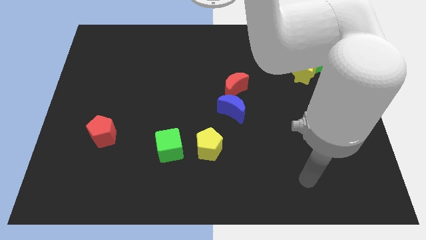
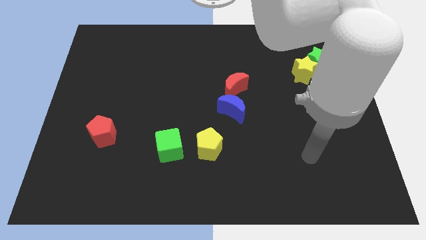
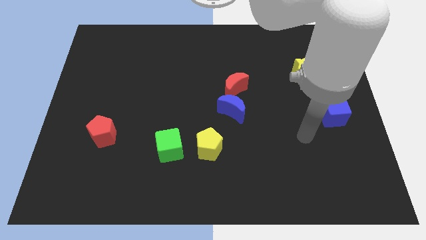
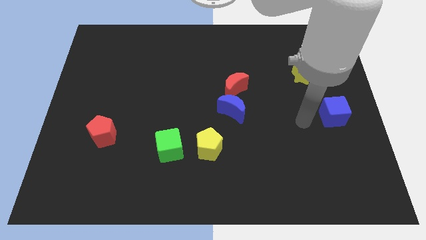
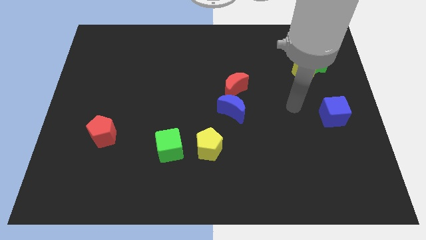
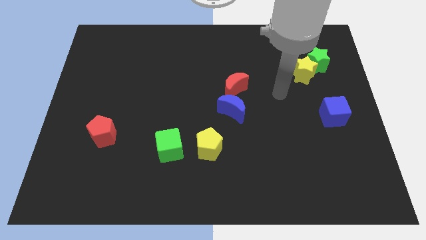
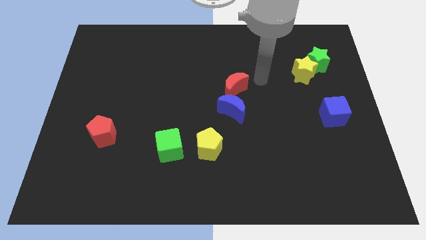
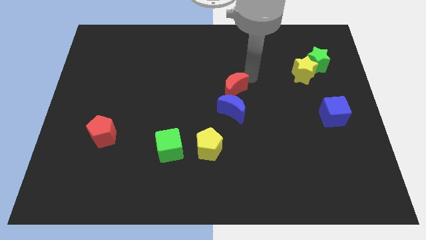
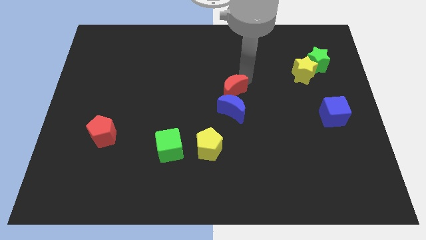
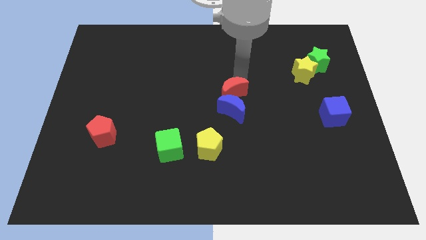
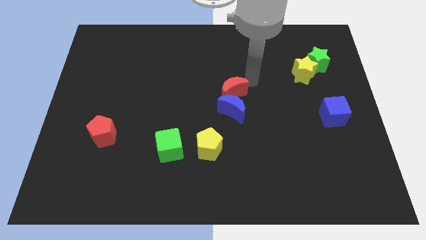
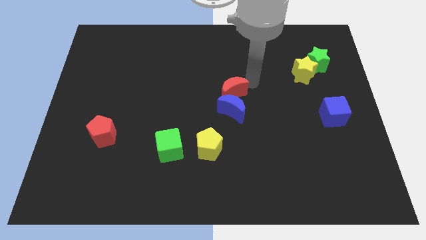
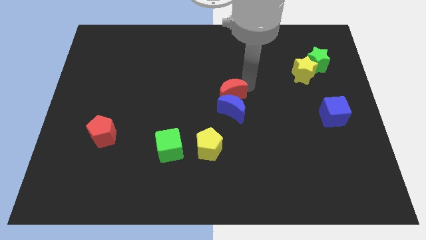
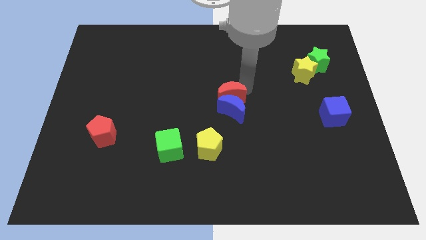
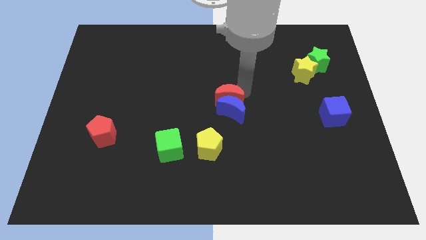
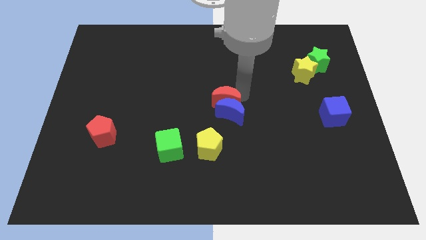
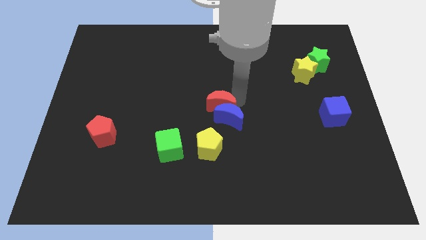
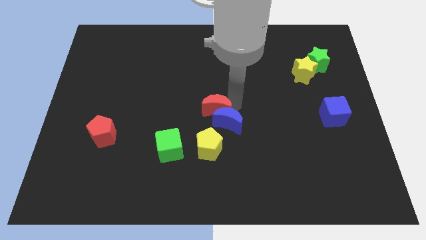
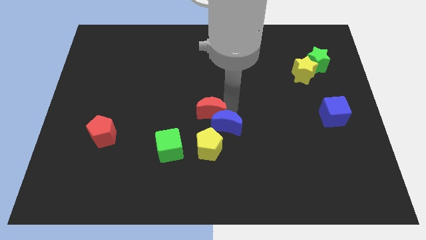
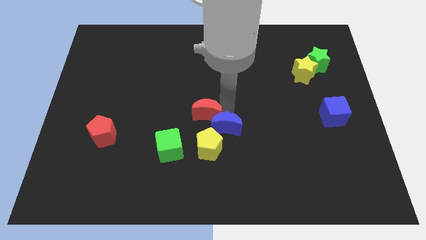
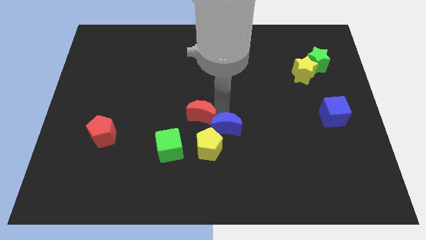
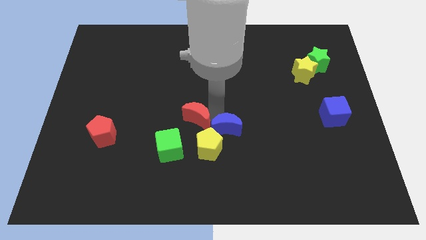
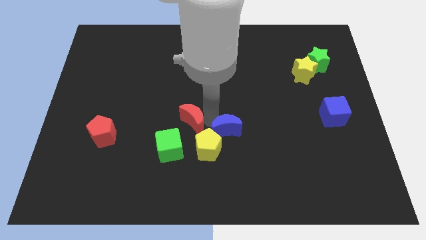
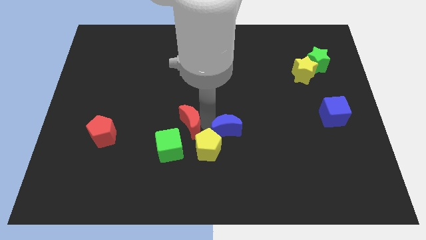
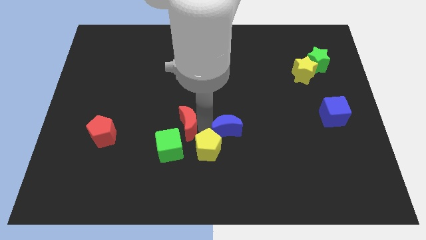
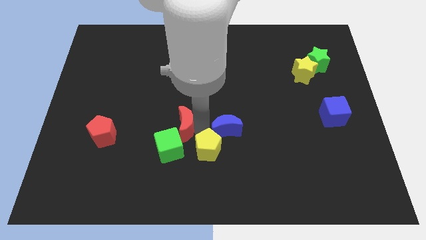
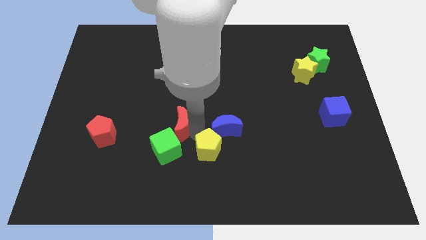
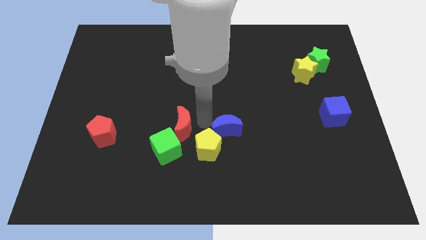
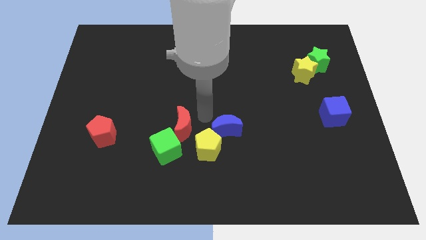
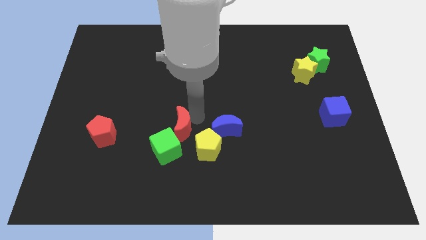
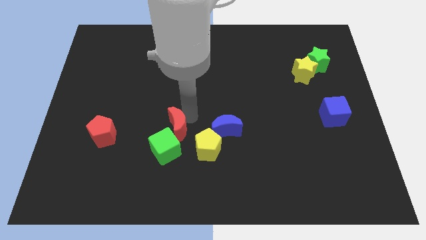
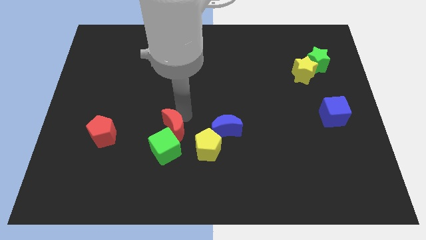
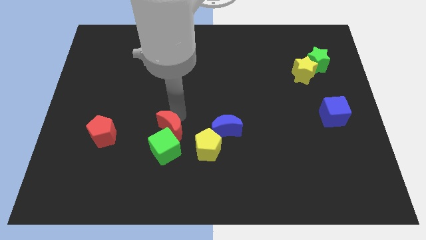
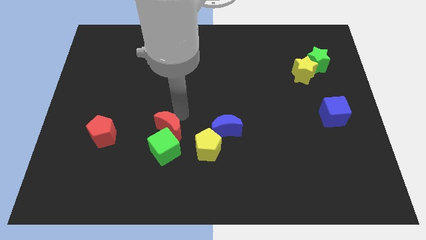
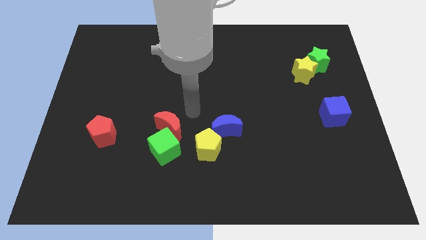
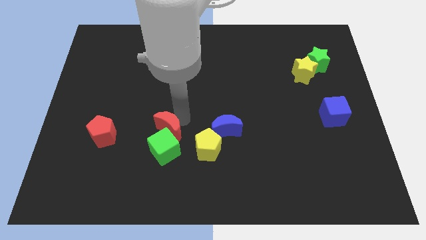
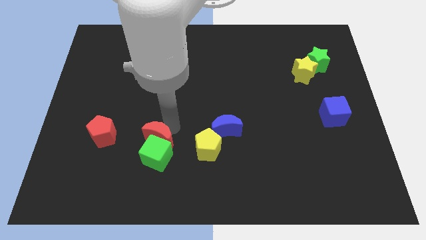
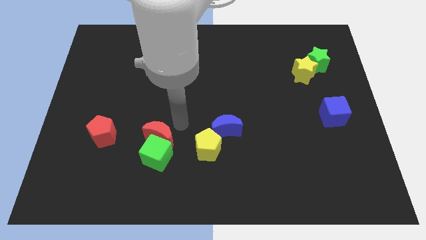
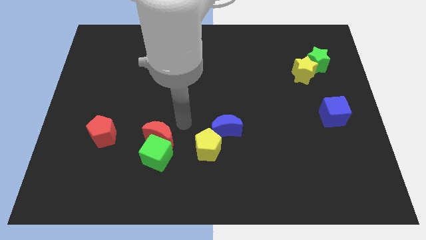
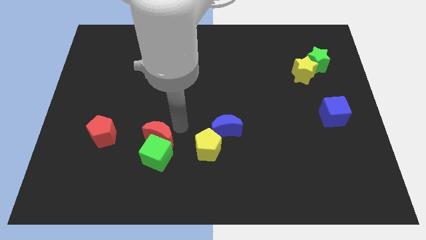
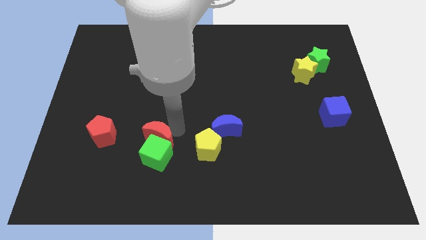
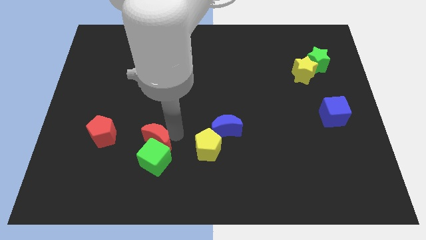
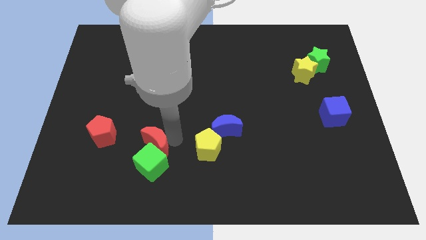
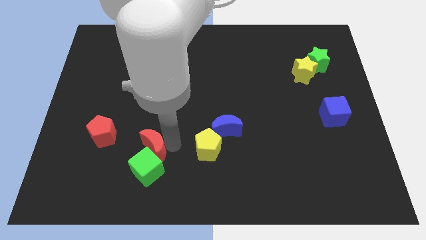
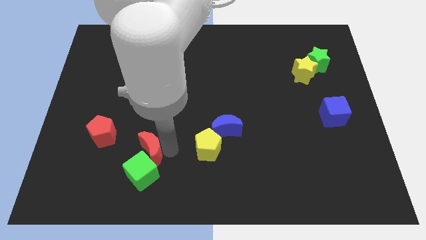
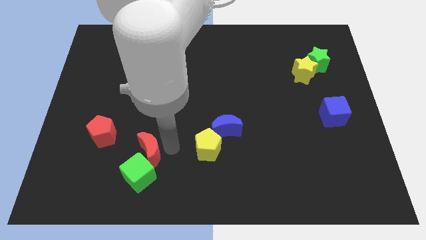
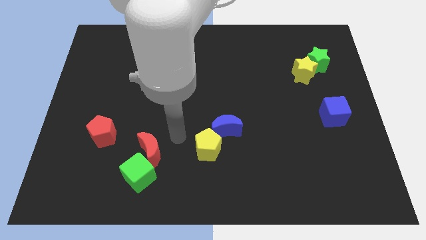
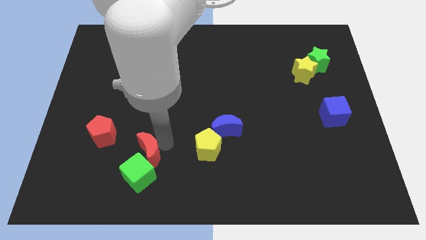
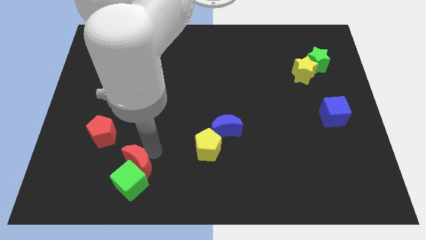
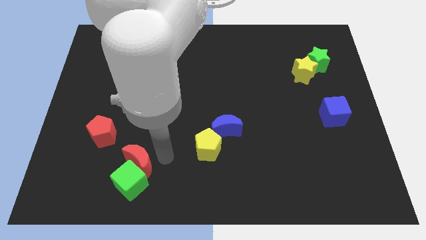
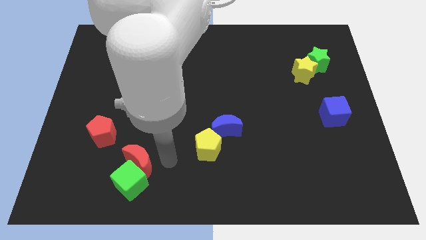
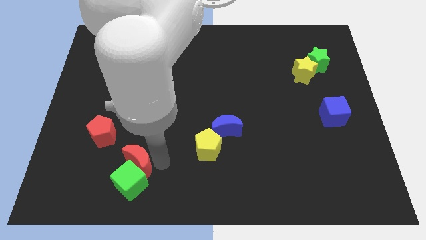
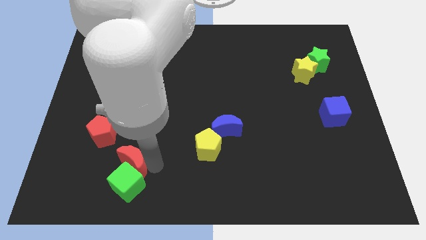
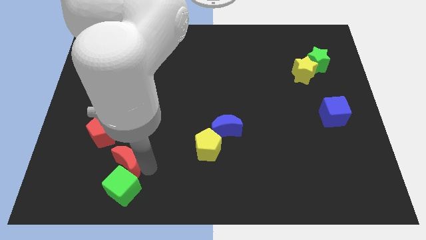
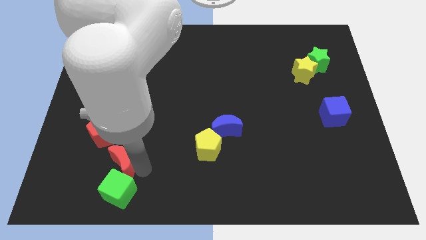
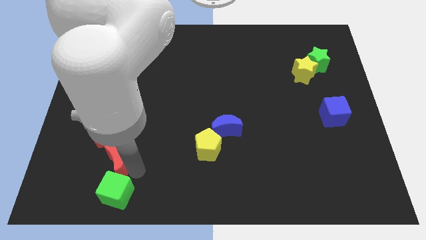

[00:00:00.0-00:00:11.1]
push the red moon to the bottom side of the red pentagon

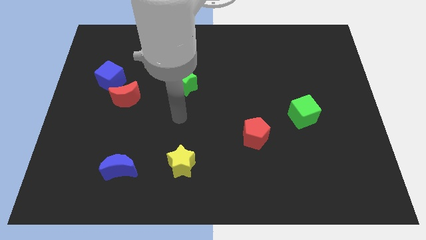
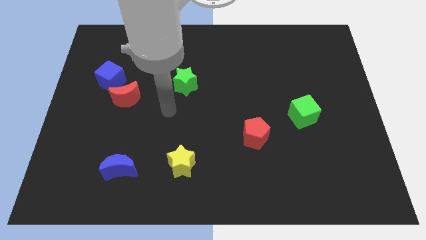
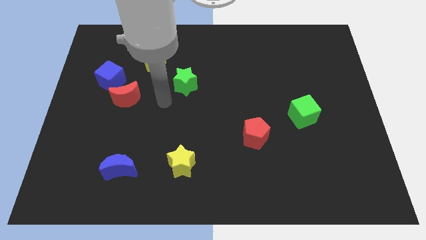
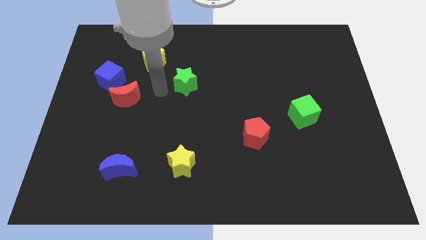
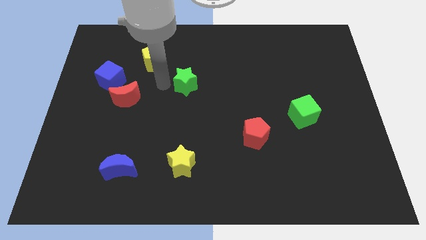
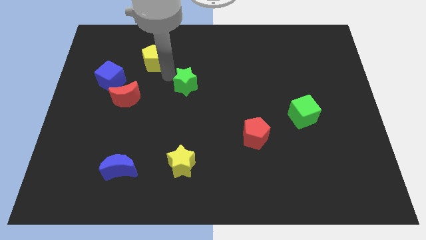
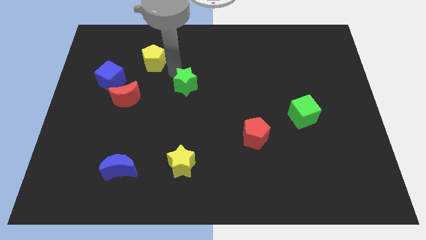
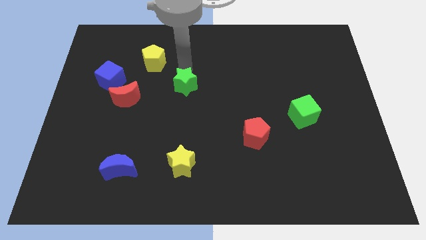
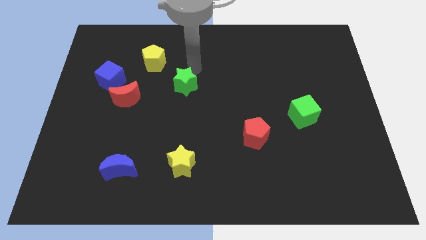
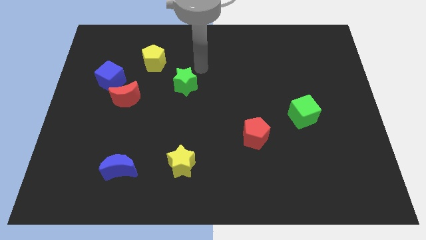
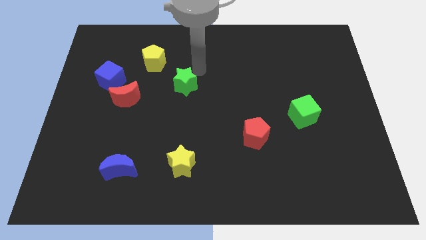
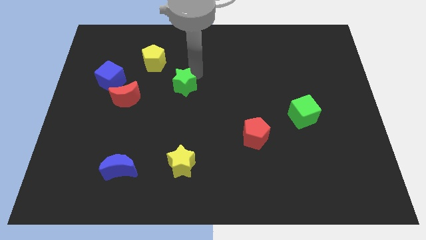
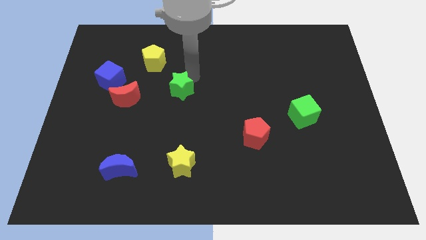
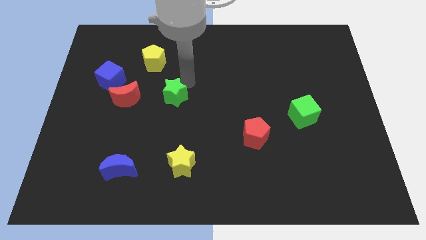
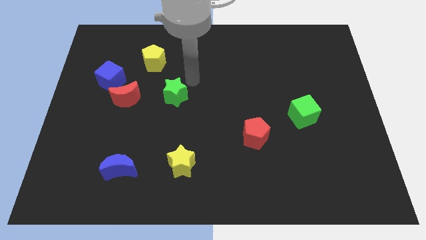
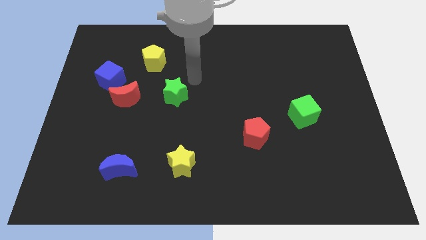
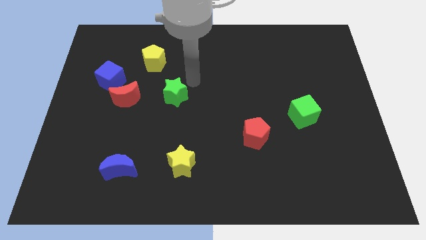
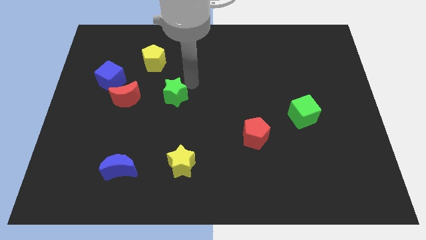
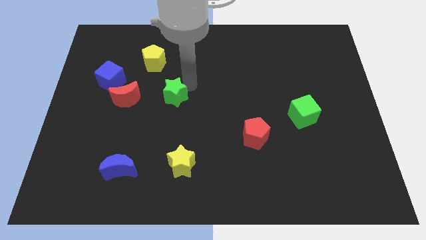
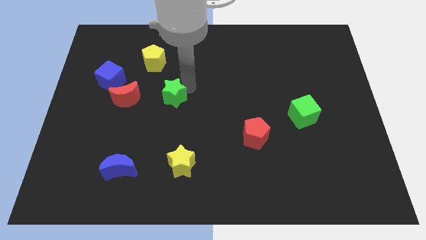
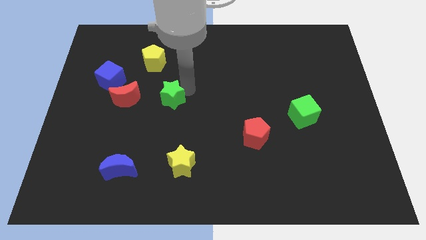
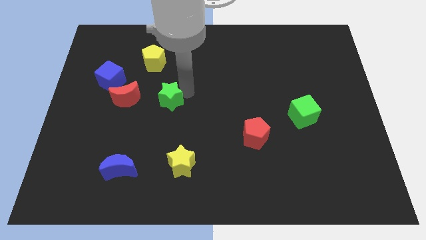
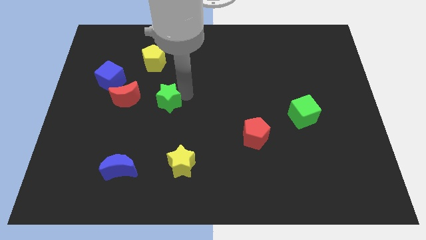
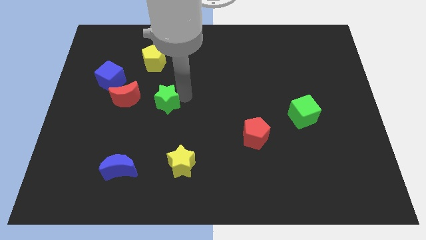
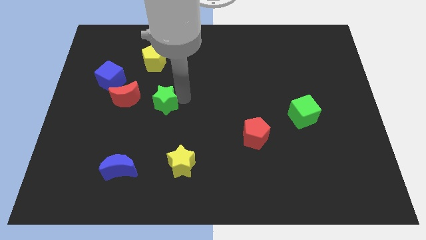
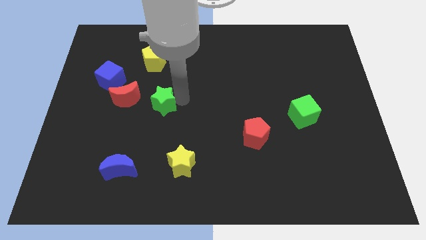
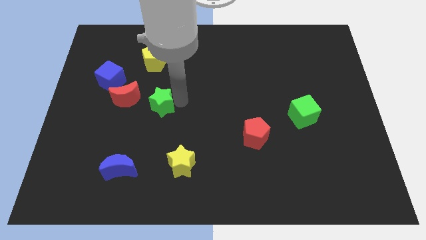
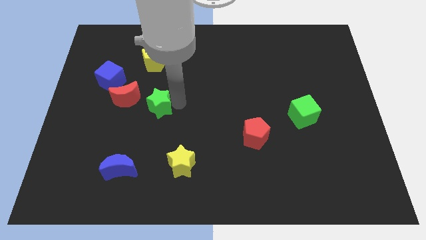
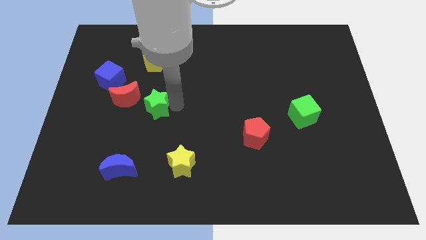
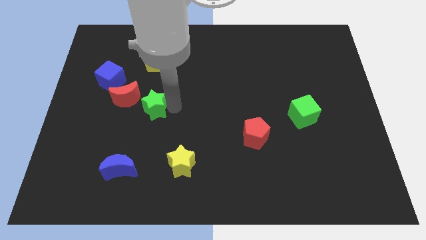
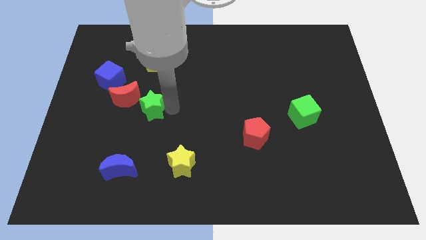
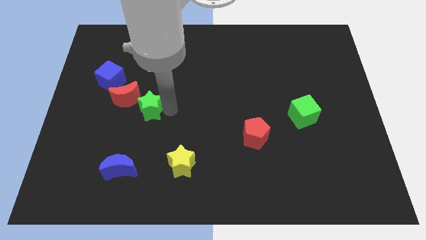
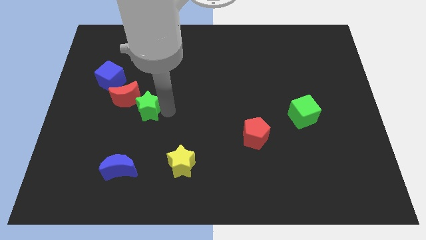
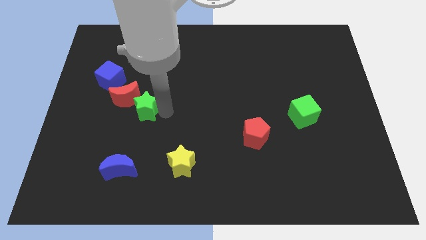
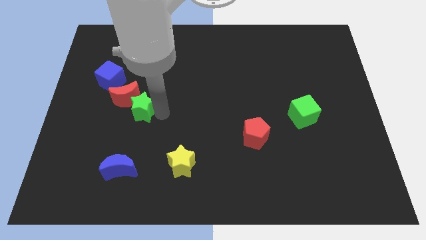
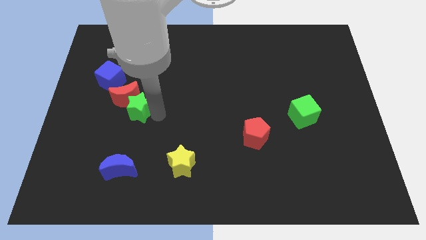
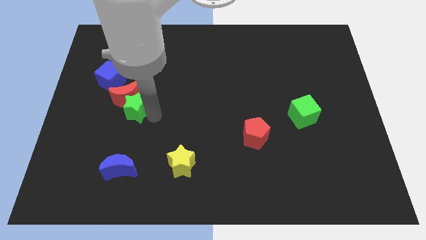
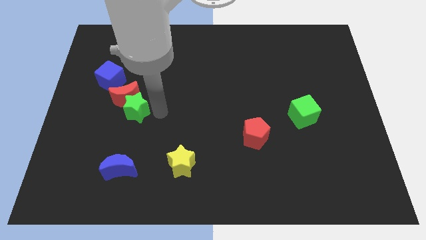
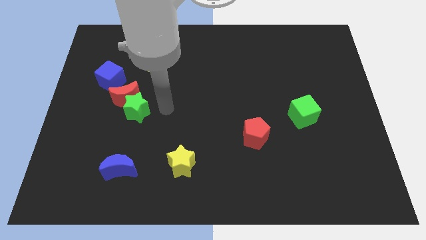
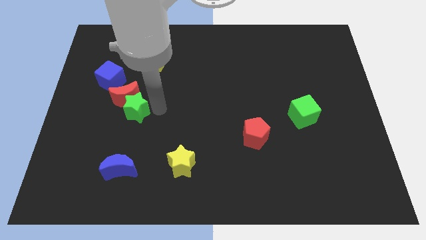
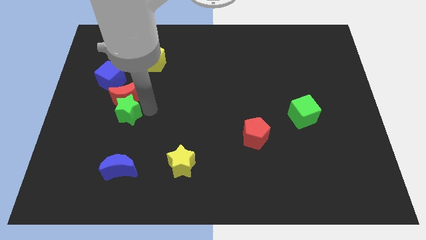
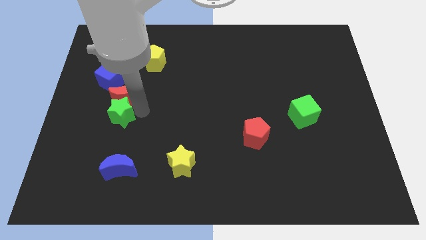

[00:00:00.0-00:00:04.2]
put the green star below the blue cube
